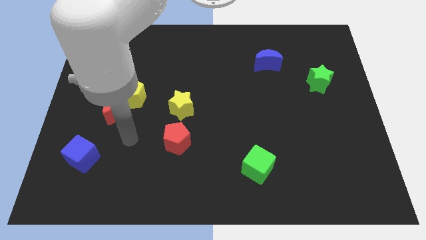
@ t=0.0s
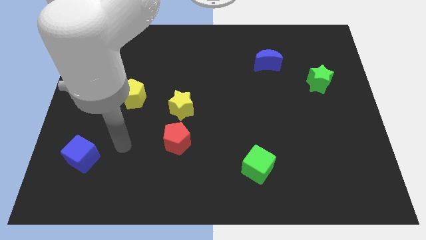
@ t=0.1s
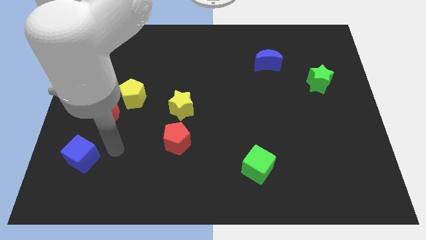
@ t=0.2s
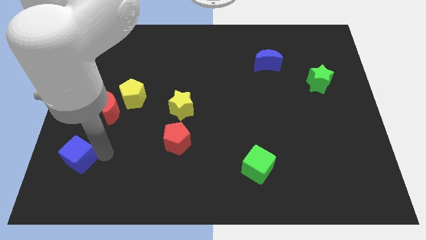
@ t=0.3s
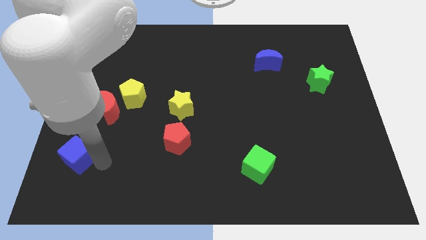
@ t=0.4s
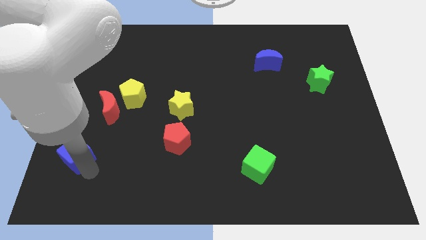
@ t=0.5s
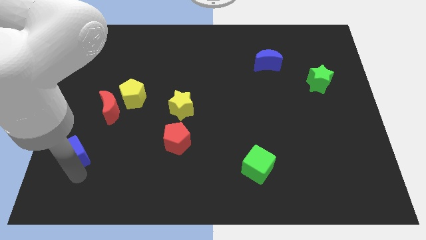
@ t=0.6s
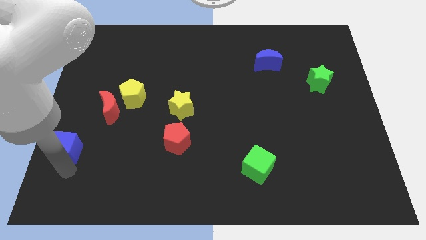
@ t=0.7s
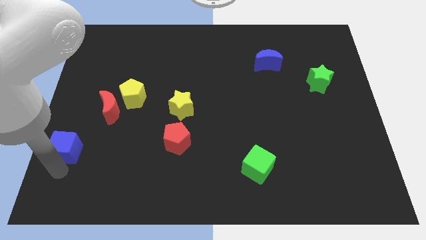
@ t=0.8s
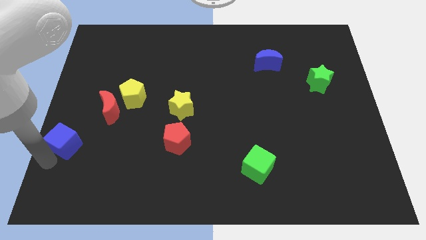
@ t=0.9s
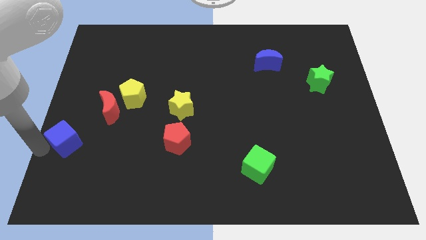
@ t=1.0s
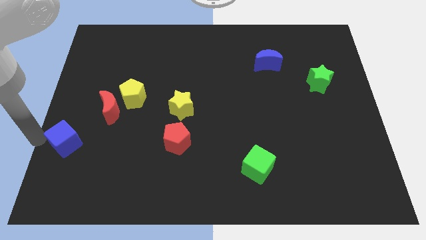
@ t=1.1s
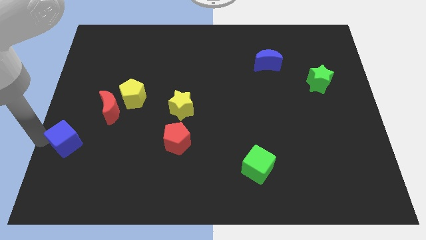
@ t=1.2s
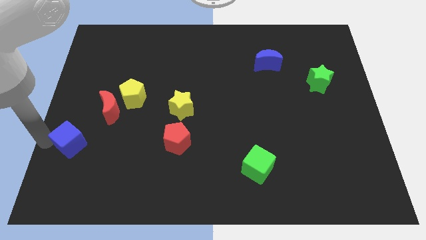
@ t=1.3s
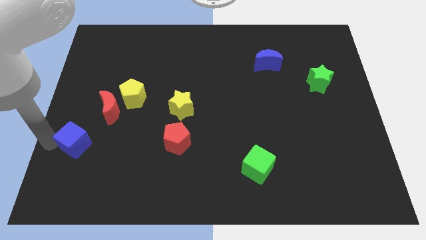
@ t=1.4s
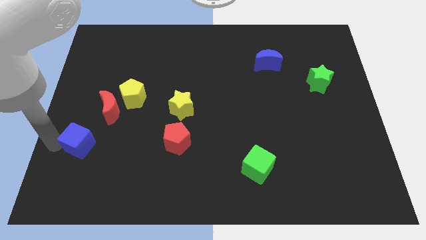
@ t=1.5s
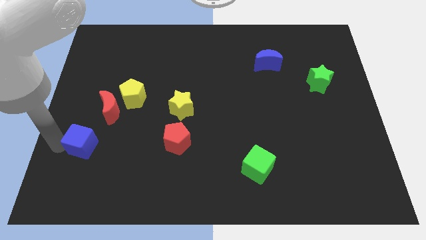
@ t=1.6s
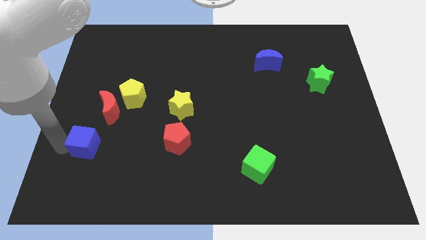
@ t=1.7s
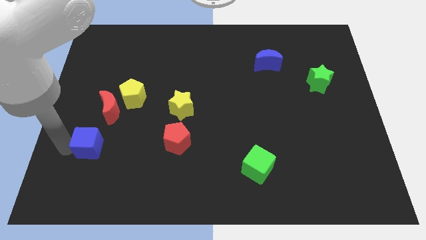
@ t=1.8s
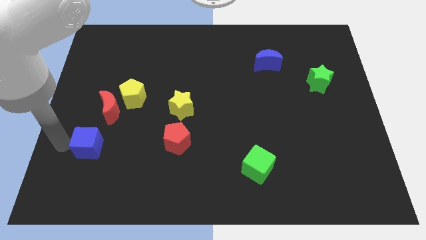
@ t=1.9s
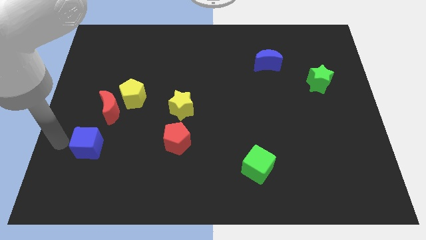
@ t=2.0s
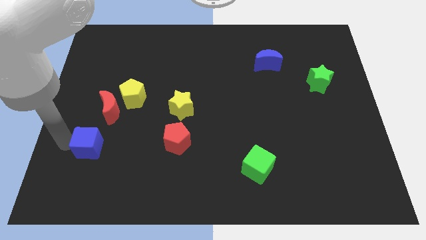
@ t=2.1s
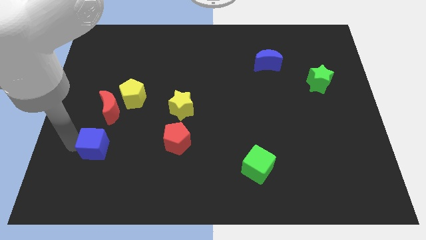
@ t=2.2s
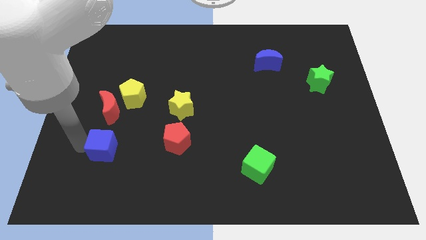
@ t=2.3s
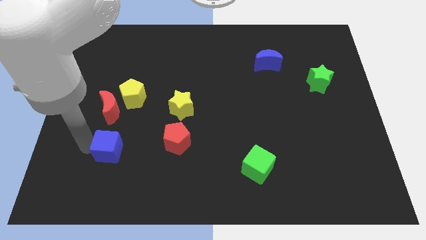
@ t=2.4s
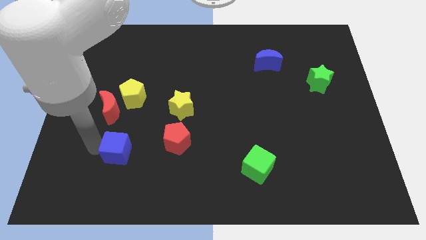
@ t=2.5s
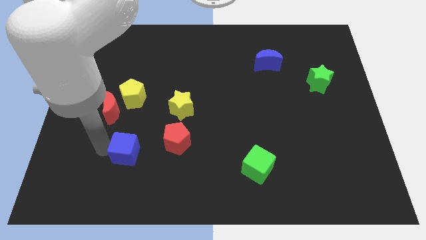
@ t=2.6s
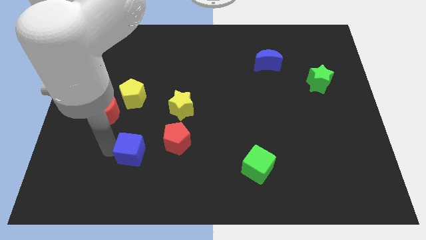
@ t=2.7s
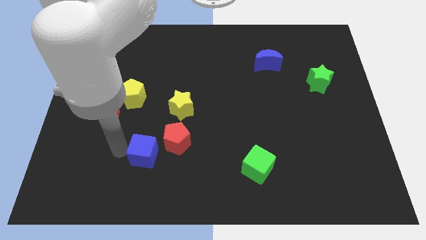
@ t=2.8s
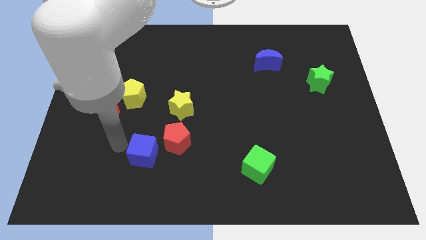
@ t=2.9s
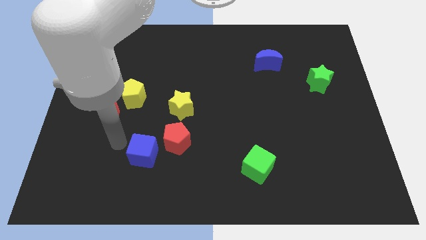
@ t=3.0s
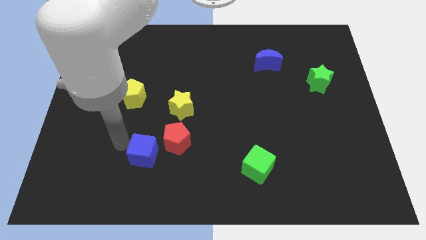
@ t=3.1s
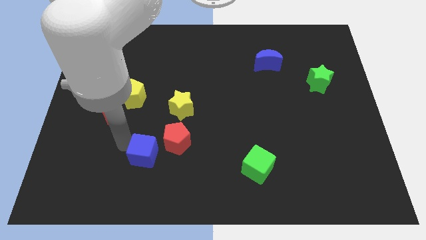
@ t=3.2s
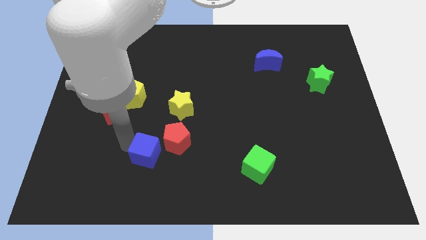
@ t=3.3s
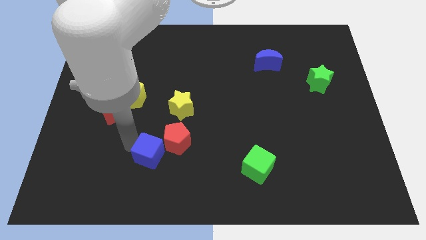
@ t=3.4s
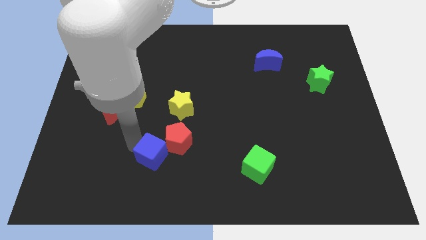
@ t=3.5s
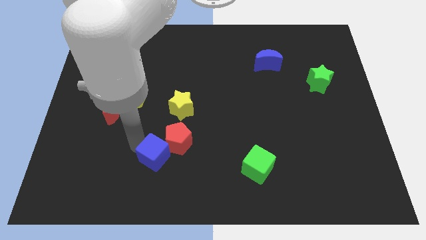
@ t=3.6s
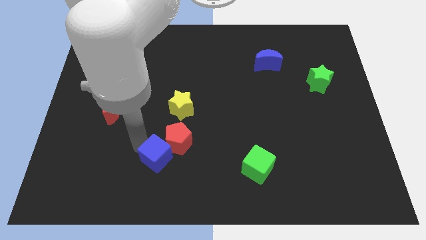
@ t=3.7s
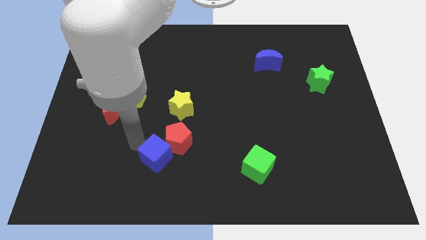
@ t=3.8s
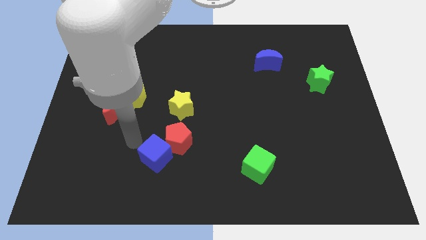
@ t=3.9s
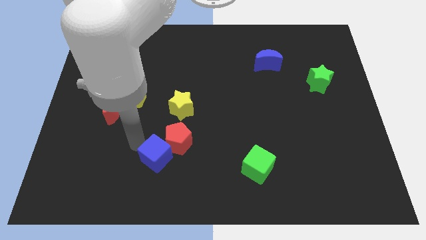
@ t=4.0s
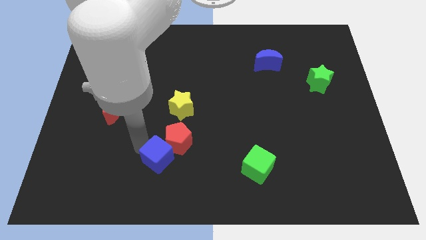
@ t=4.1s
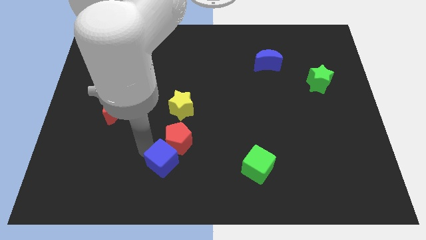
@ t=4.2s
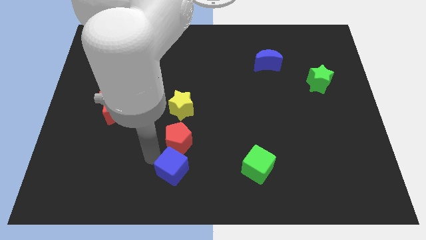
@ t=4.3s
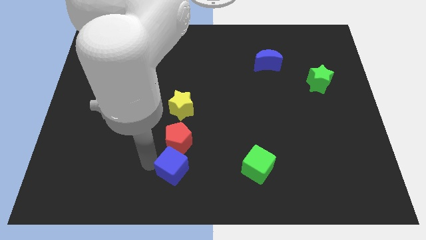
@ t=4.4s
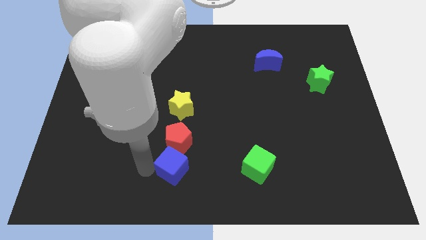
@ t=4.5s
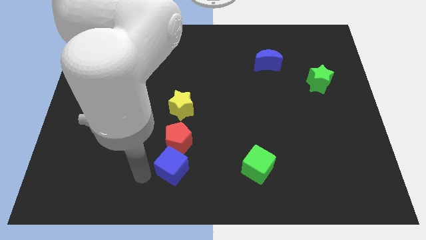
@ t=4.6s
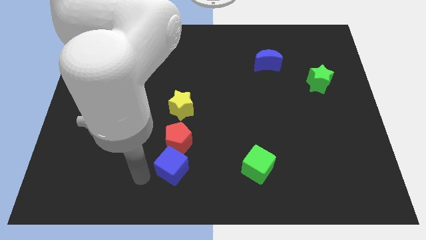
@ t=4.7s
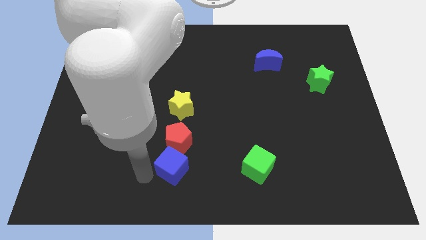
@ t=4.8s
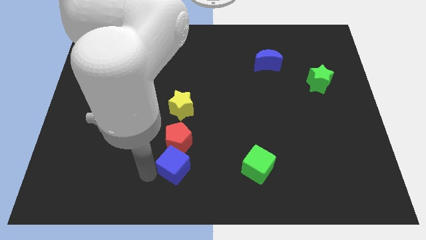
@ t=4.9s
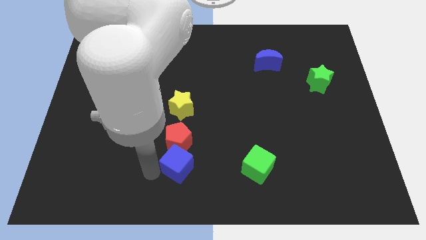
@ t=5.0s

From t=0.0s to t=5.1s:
slide the blue cube to the right

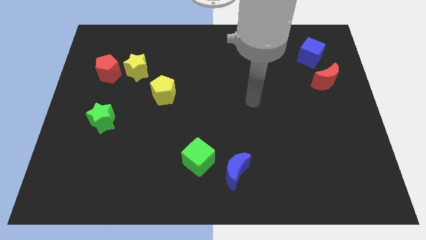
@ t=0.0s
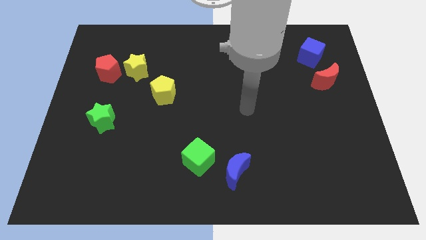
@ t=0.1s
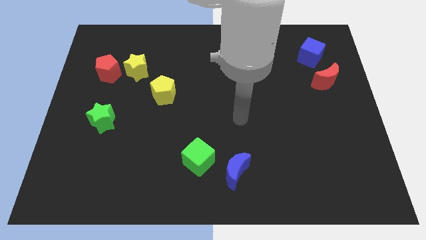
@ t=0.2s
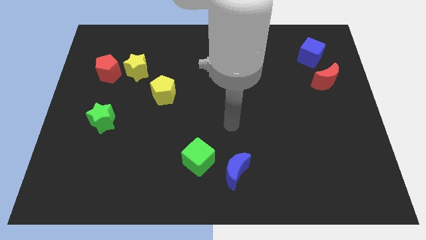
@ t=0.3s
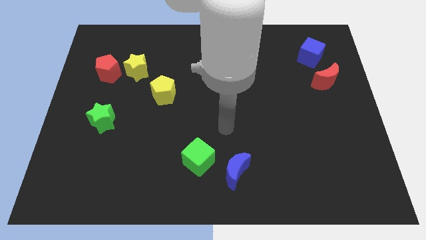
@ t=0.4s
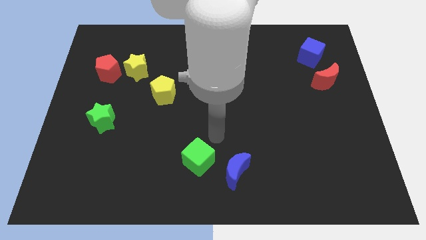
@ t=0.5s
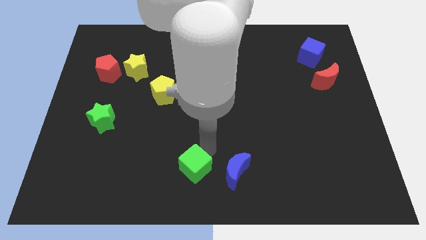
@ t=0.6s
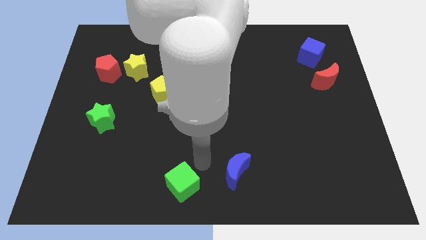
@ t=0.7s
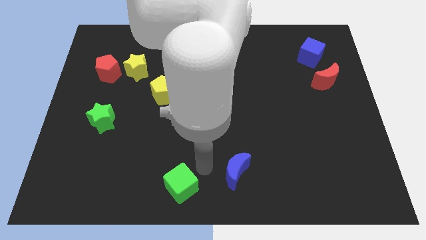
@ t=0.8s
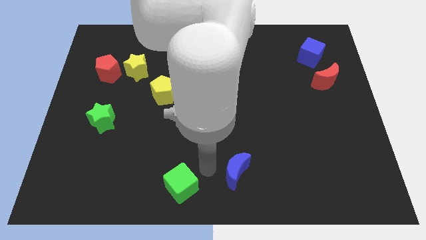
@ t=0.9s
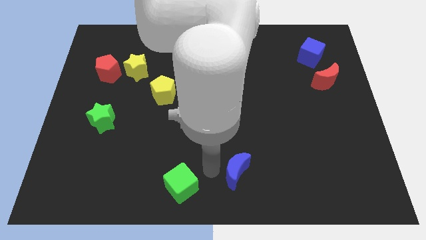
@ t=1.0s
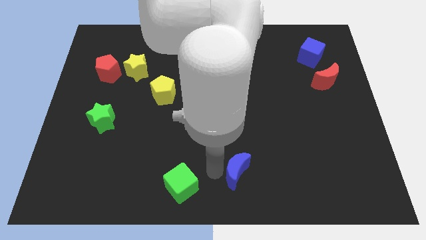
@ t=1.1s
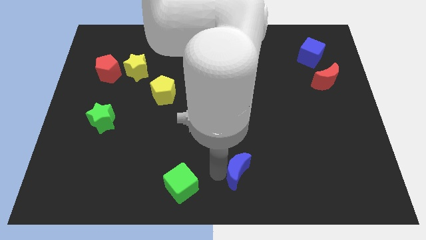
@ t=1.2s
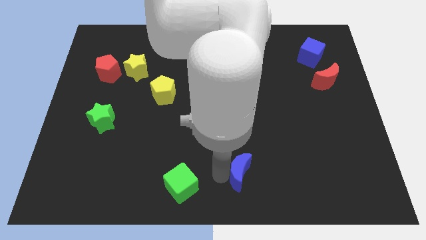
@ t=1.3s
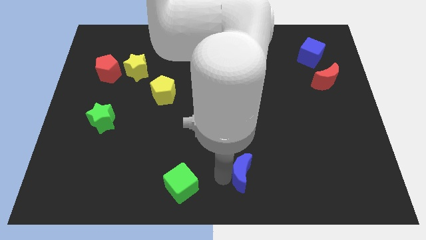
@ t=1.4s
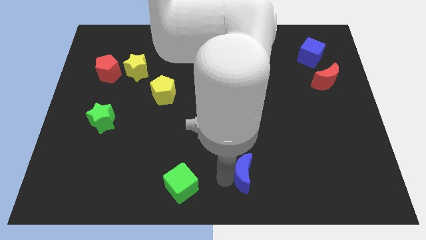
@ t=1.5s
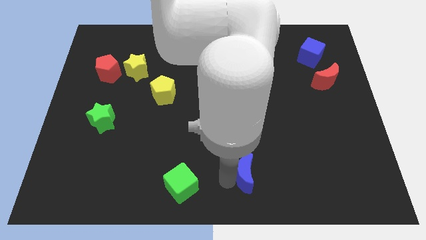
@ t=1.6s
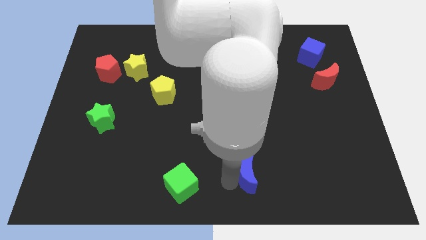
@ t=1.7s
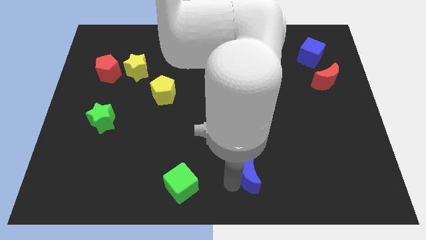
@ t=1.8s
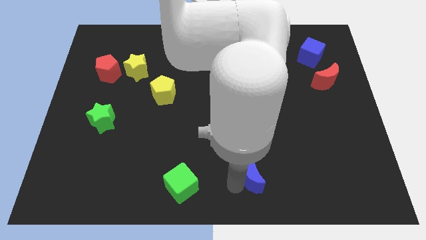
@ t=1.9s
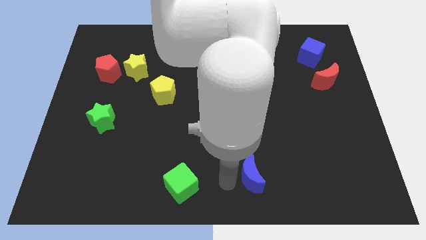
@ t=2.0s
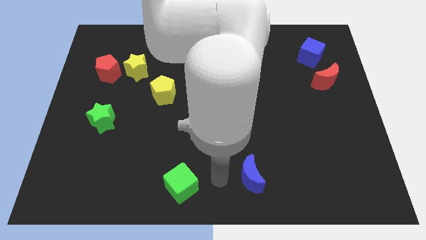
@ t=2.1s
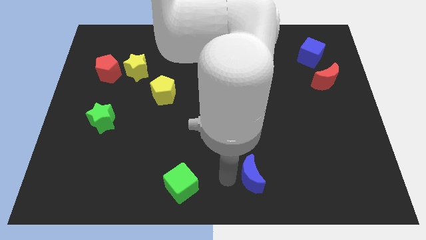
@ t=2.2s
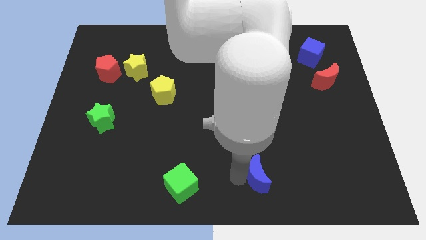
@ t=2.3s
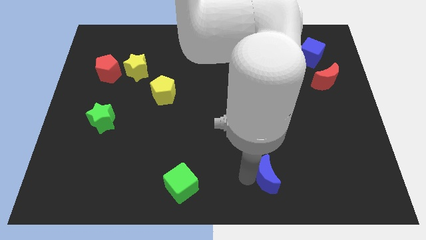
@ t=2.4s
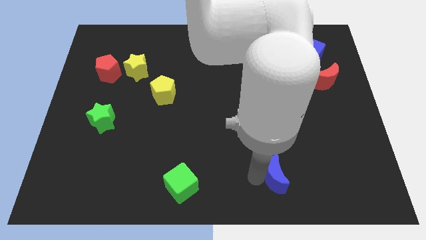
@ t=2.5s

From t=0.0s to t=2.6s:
slide the blue moon a little bit to the right

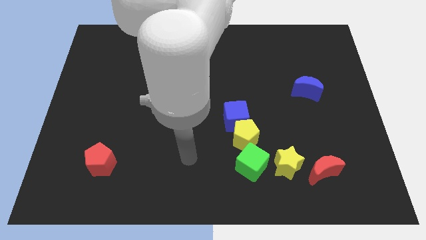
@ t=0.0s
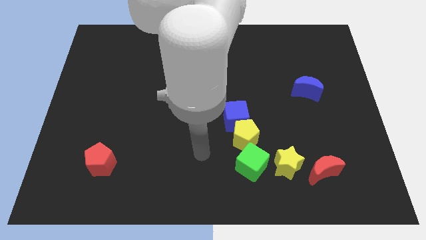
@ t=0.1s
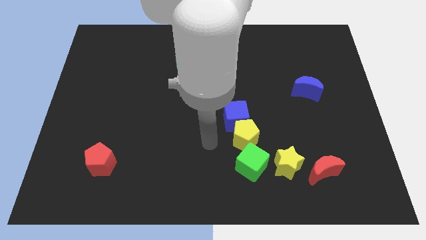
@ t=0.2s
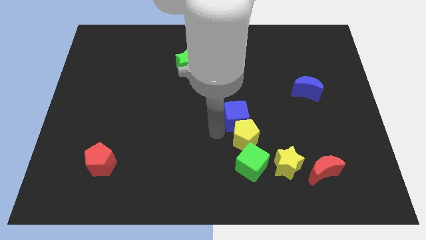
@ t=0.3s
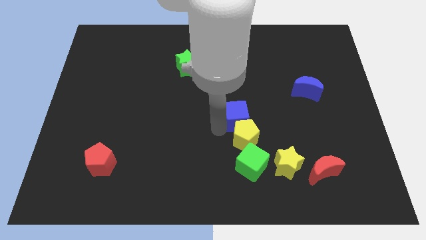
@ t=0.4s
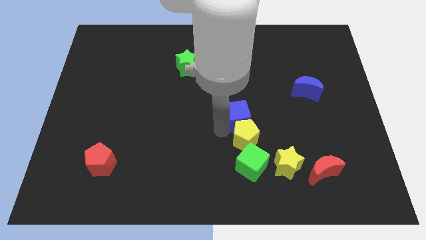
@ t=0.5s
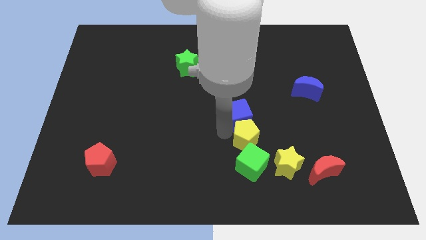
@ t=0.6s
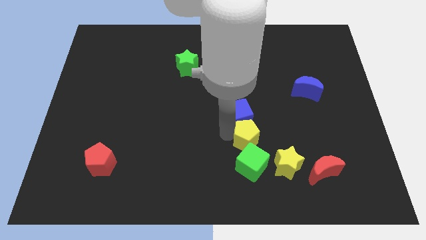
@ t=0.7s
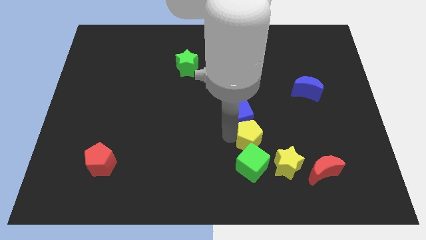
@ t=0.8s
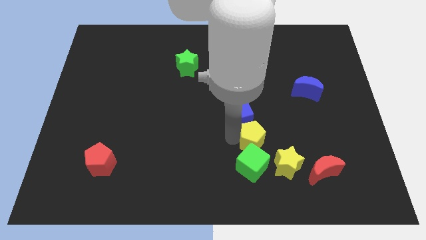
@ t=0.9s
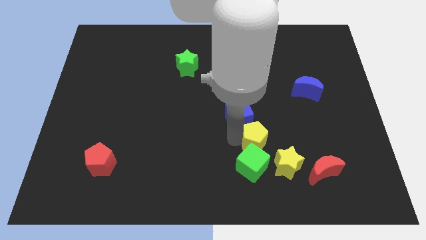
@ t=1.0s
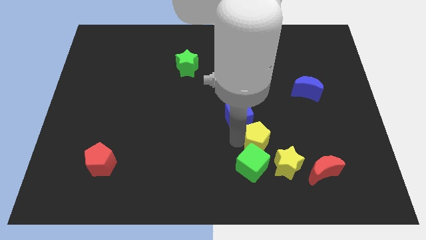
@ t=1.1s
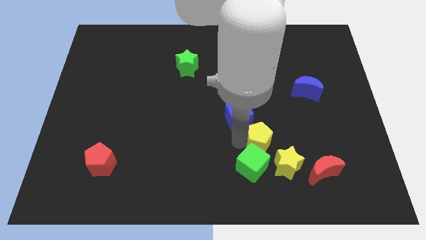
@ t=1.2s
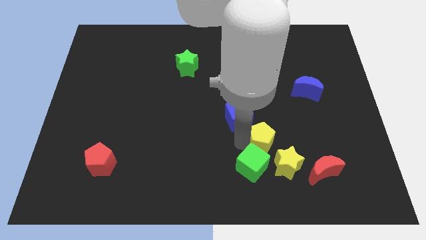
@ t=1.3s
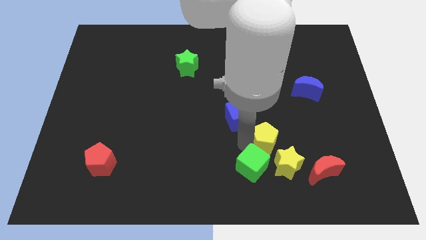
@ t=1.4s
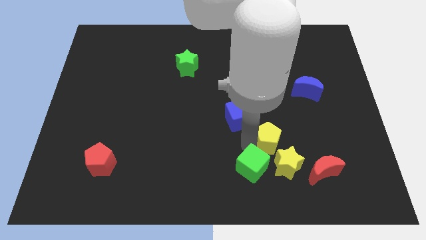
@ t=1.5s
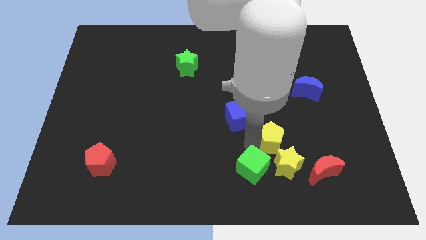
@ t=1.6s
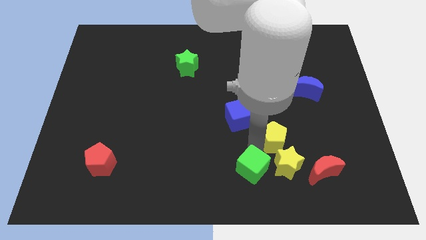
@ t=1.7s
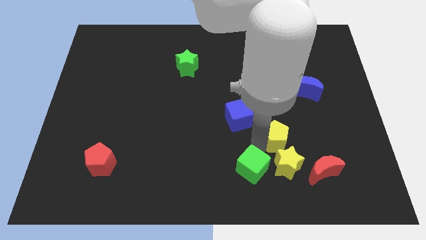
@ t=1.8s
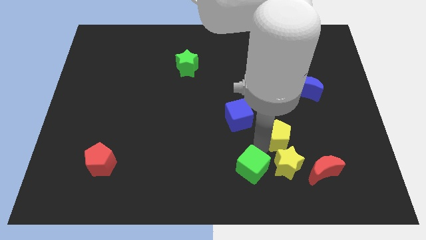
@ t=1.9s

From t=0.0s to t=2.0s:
slide the yellow pentagon somewhat right
